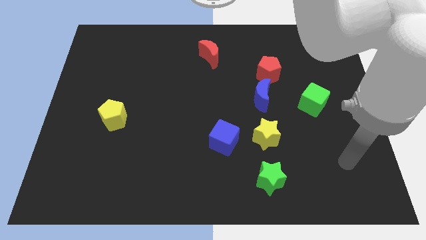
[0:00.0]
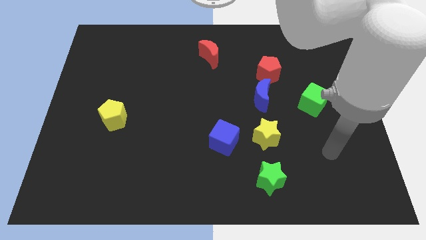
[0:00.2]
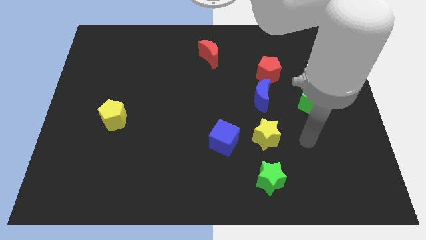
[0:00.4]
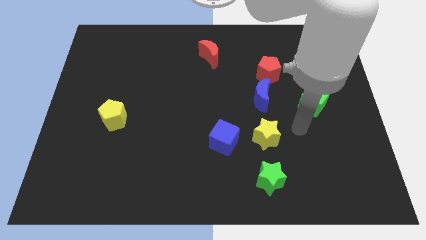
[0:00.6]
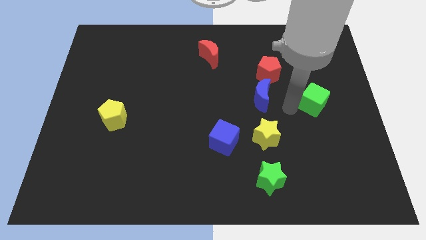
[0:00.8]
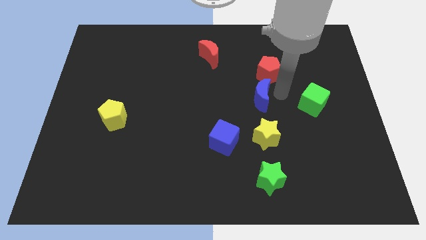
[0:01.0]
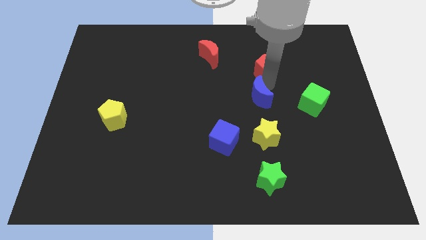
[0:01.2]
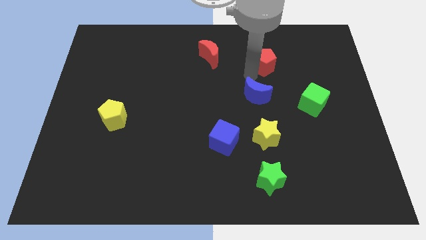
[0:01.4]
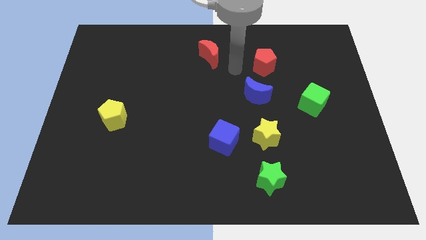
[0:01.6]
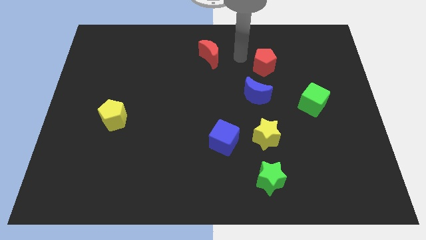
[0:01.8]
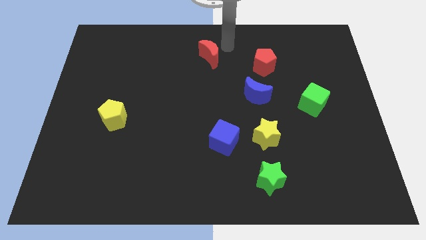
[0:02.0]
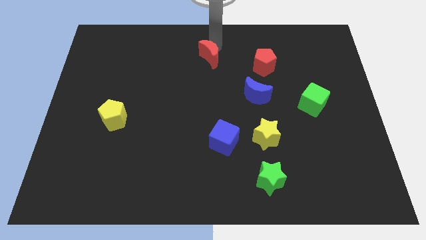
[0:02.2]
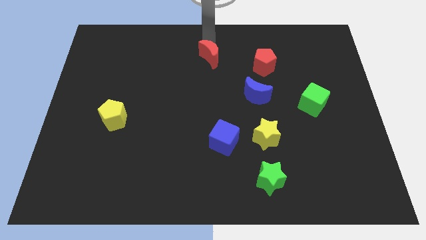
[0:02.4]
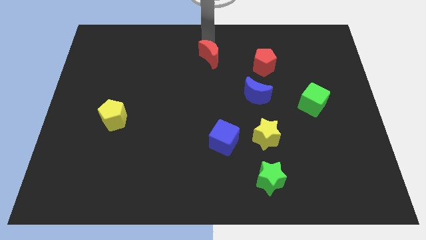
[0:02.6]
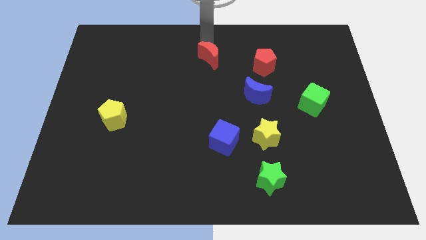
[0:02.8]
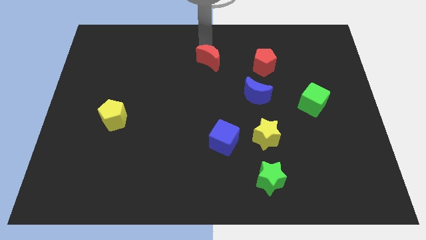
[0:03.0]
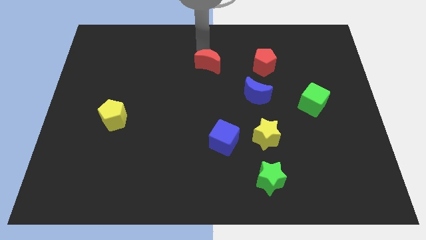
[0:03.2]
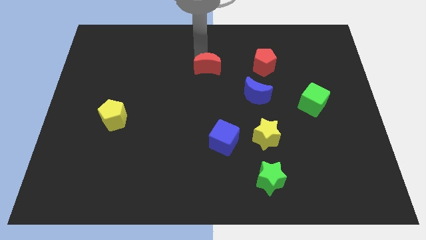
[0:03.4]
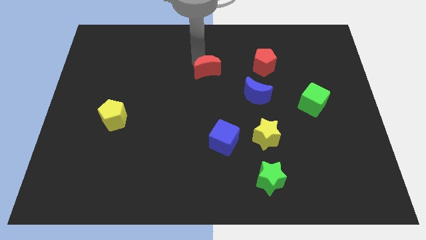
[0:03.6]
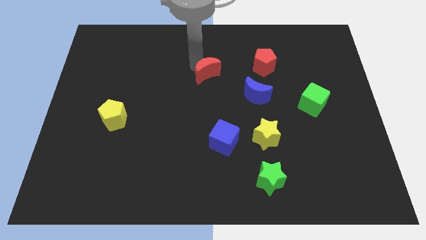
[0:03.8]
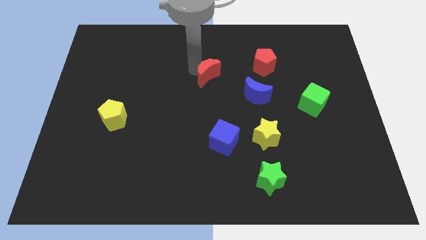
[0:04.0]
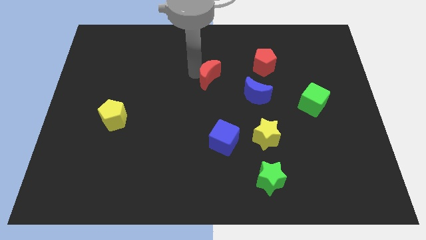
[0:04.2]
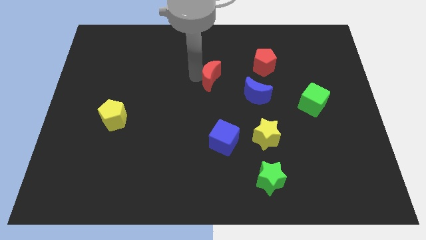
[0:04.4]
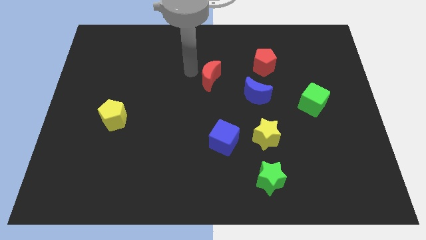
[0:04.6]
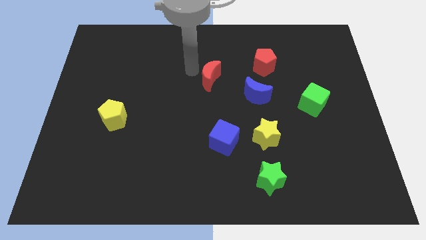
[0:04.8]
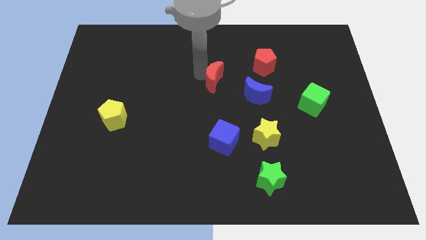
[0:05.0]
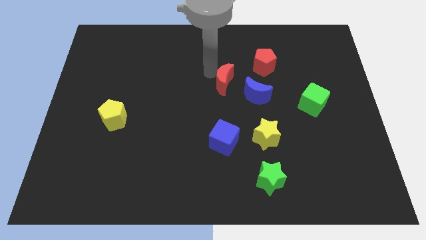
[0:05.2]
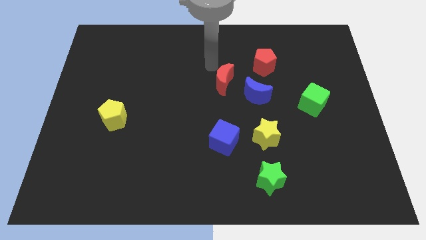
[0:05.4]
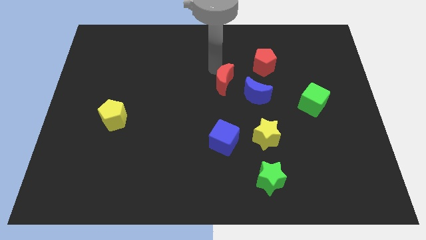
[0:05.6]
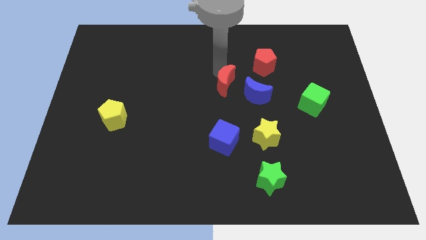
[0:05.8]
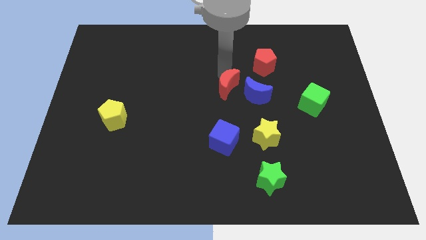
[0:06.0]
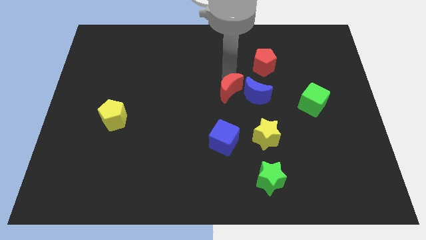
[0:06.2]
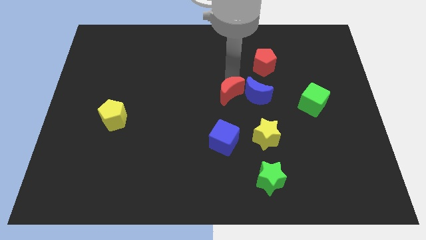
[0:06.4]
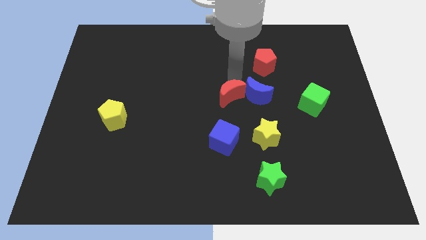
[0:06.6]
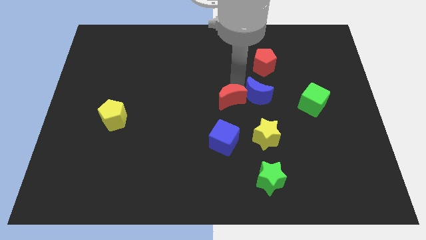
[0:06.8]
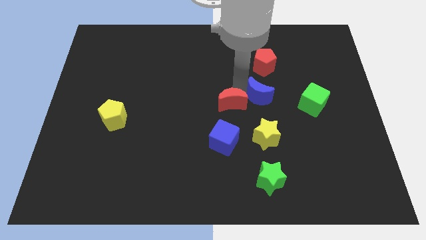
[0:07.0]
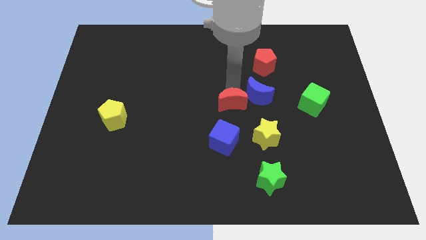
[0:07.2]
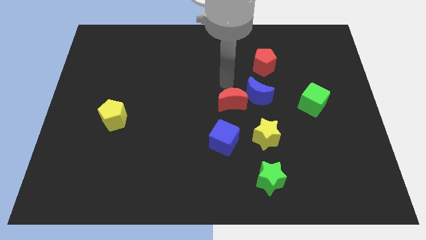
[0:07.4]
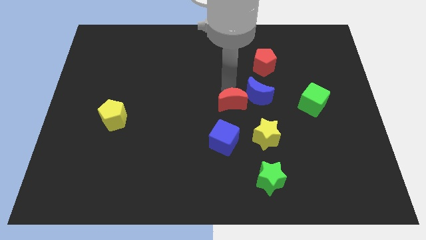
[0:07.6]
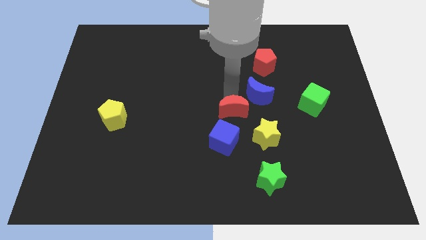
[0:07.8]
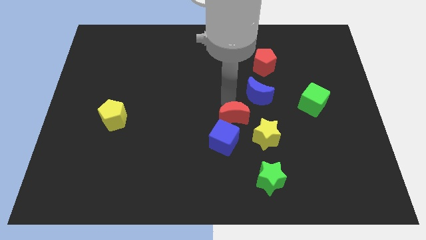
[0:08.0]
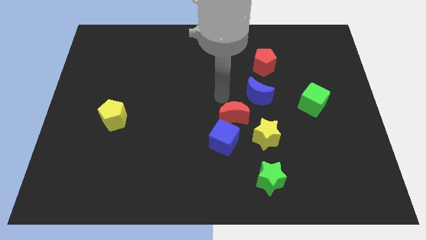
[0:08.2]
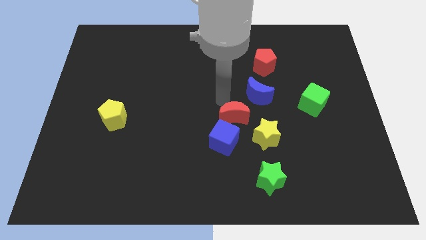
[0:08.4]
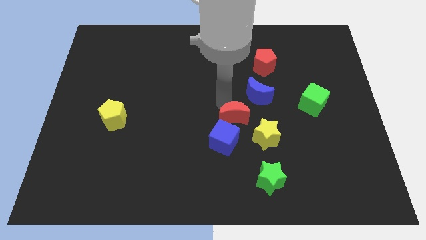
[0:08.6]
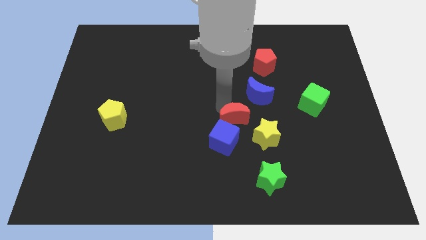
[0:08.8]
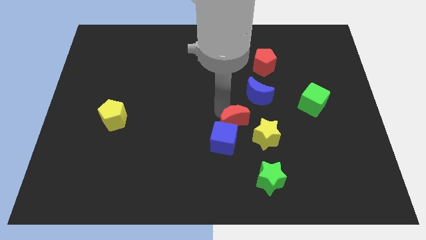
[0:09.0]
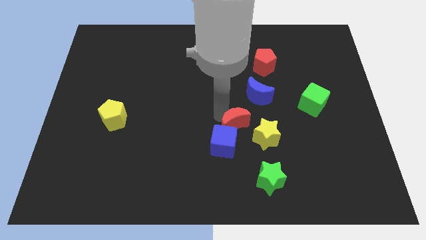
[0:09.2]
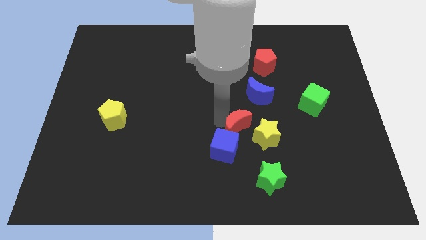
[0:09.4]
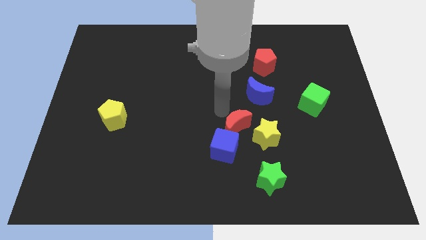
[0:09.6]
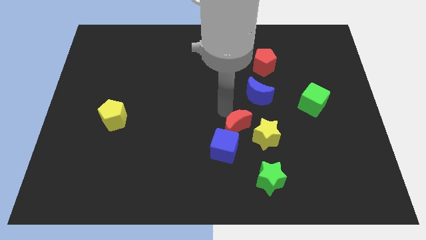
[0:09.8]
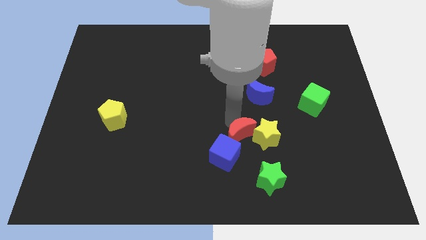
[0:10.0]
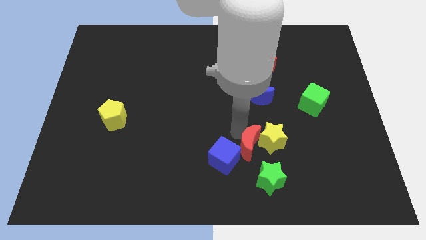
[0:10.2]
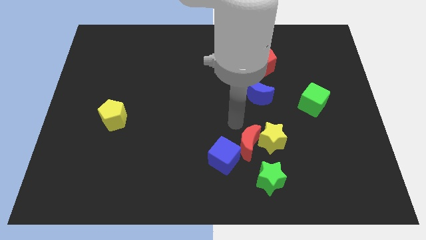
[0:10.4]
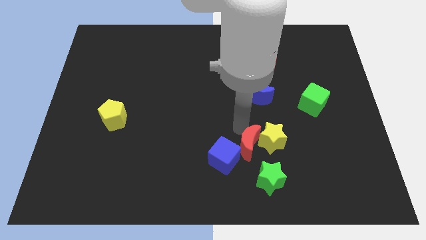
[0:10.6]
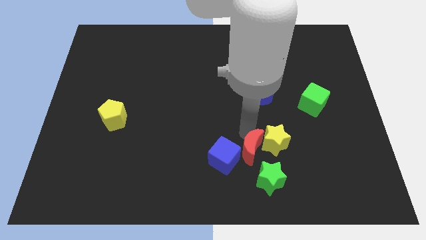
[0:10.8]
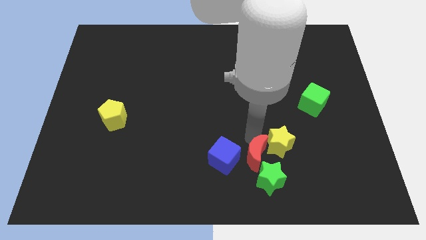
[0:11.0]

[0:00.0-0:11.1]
put the red moon close to the green star
